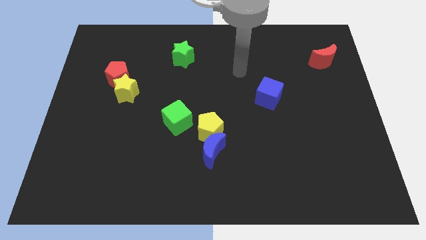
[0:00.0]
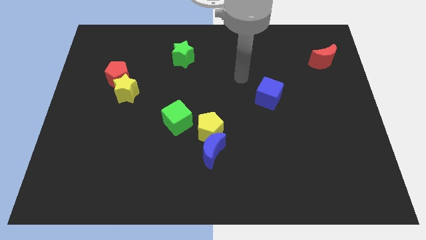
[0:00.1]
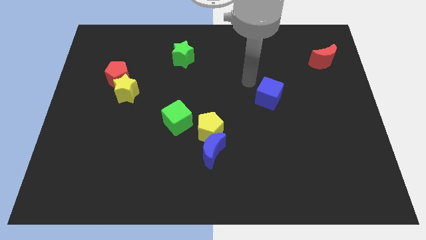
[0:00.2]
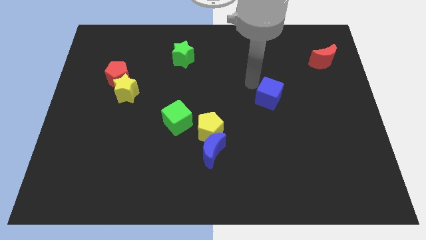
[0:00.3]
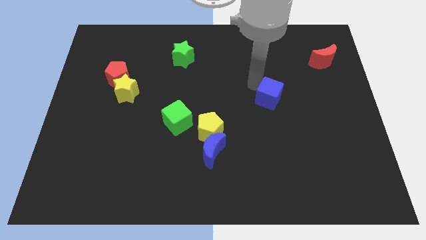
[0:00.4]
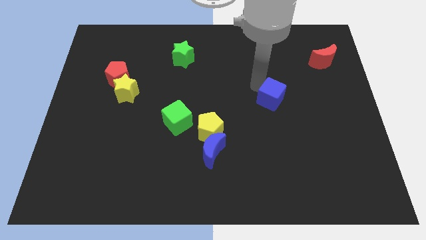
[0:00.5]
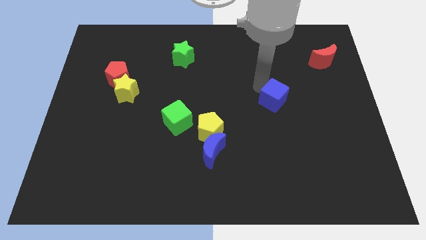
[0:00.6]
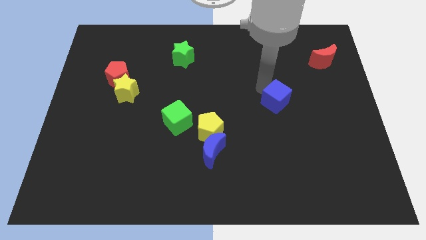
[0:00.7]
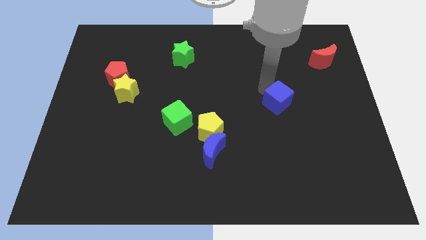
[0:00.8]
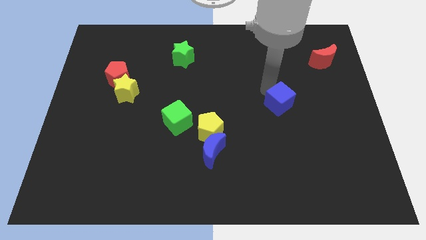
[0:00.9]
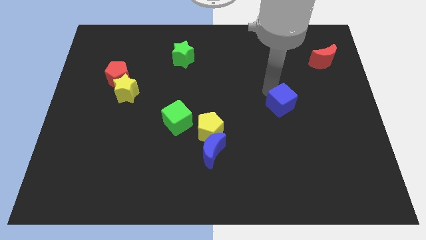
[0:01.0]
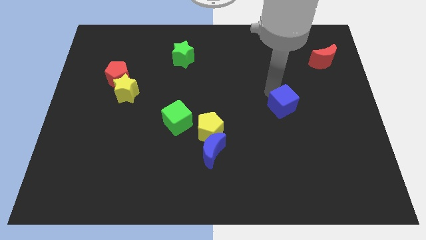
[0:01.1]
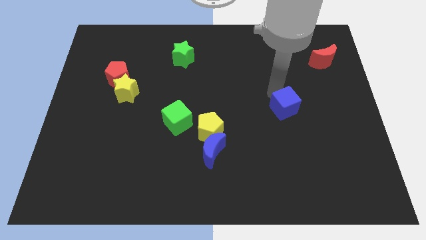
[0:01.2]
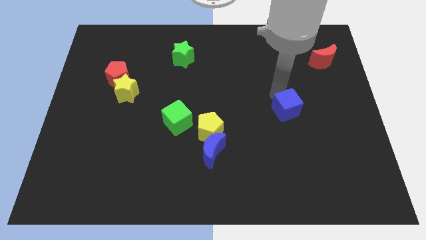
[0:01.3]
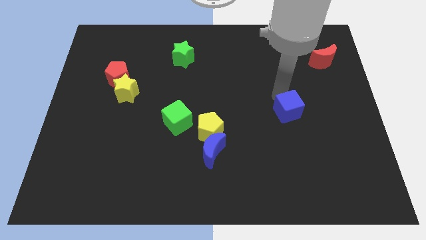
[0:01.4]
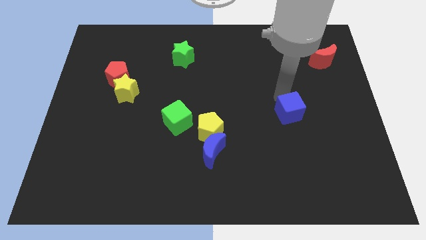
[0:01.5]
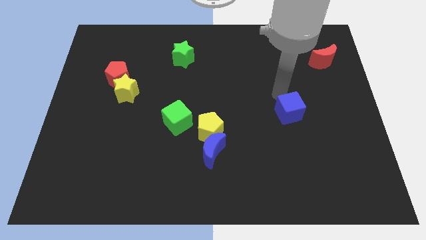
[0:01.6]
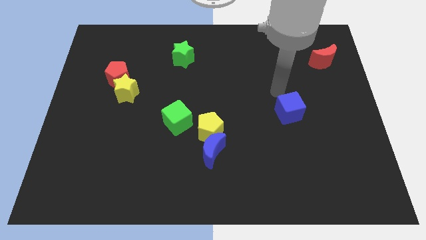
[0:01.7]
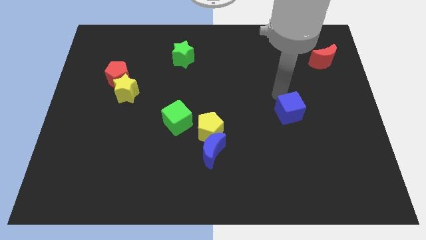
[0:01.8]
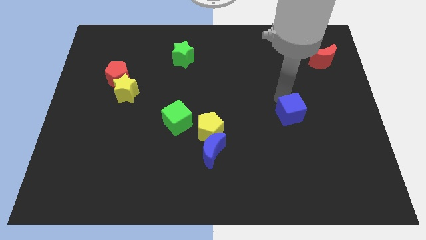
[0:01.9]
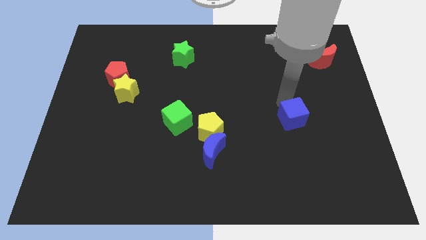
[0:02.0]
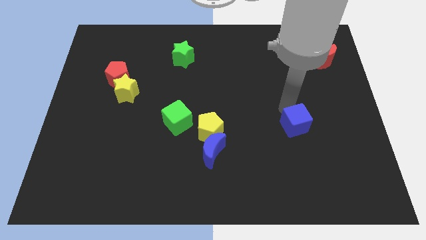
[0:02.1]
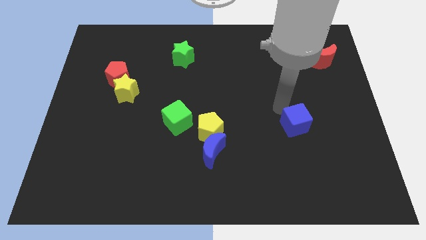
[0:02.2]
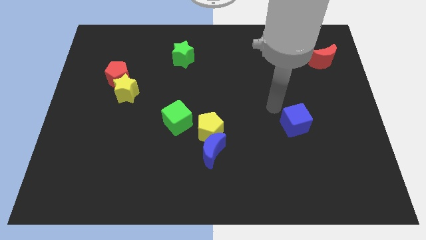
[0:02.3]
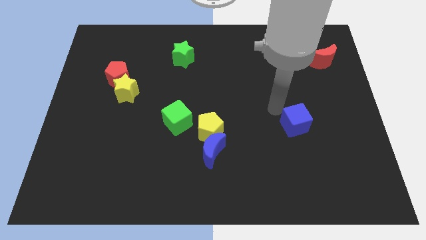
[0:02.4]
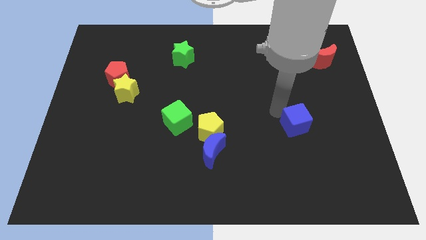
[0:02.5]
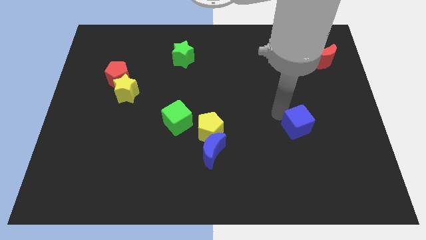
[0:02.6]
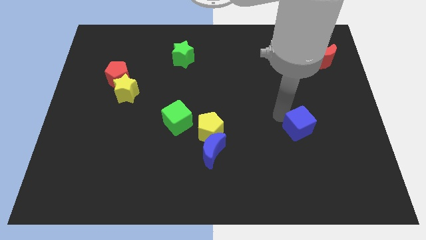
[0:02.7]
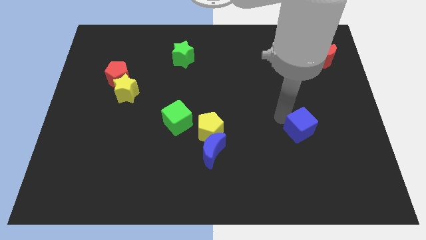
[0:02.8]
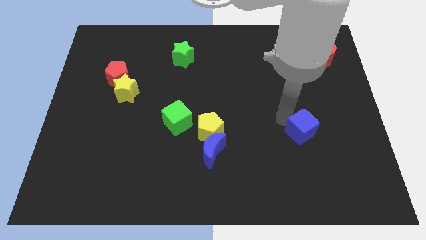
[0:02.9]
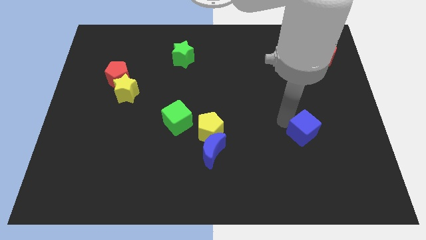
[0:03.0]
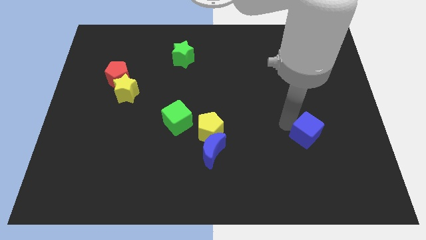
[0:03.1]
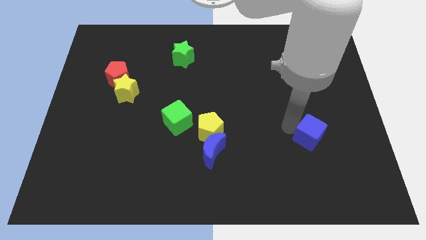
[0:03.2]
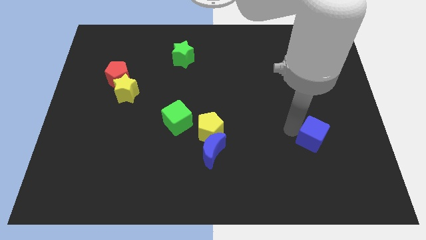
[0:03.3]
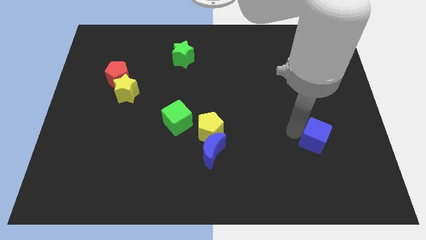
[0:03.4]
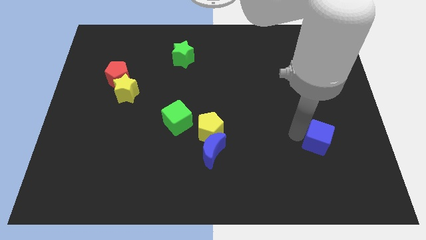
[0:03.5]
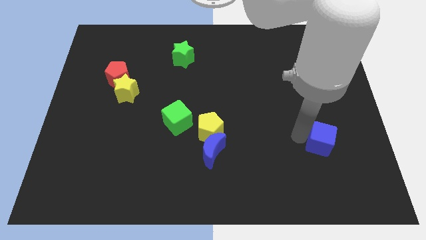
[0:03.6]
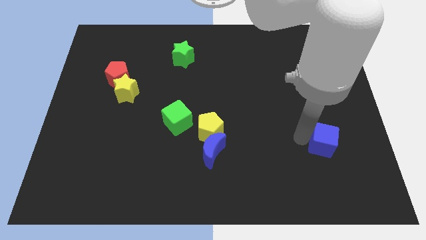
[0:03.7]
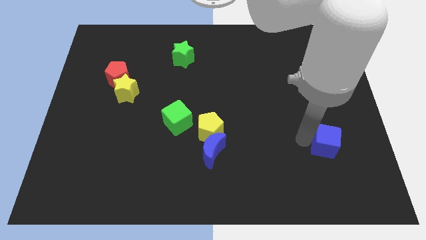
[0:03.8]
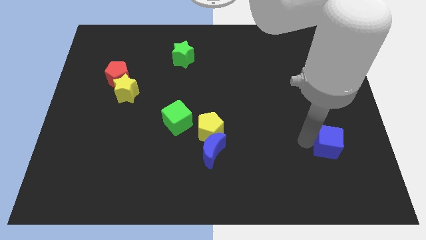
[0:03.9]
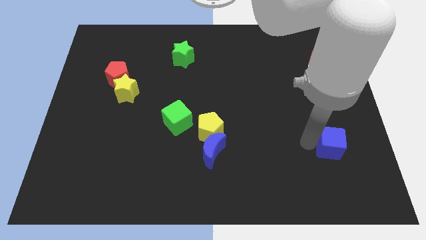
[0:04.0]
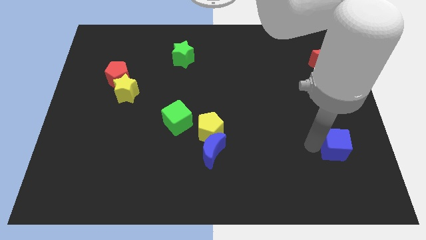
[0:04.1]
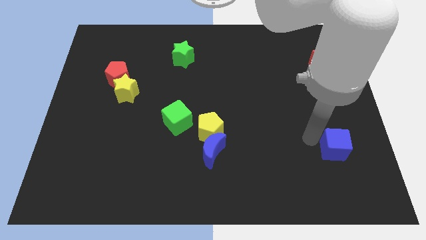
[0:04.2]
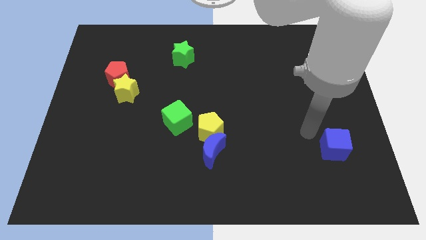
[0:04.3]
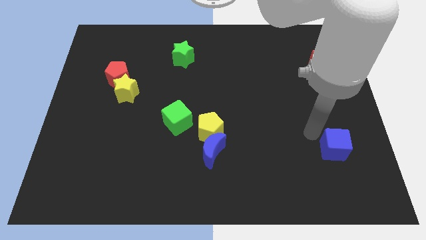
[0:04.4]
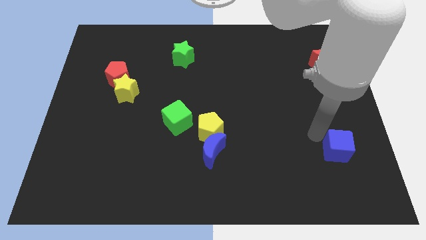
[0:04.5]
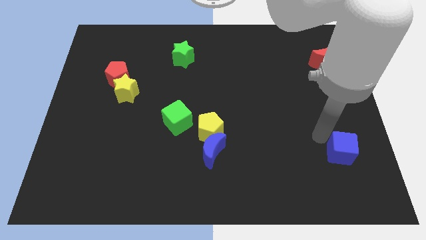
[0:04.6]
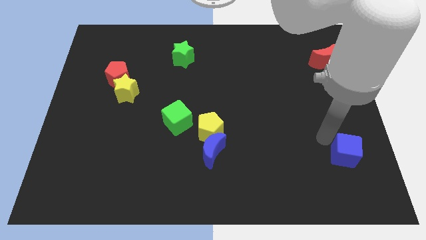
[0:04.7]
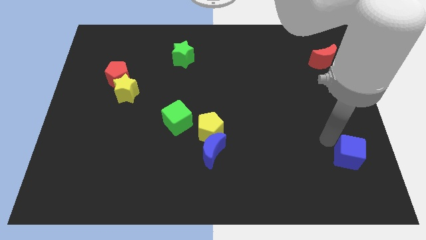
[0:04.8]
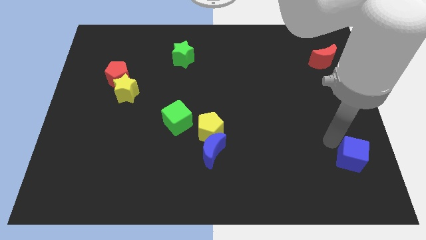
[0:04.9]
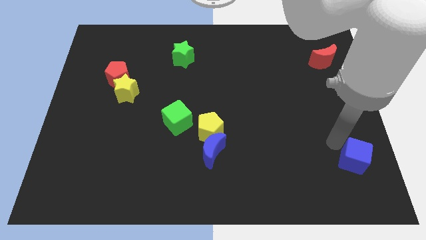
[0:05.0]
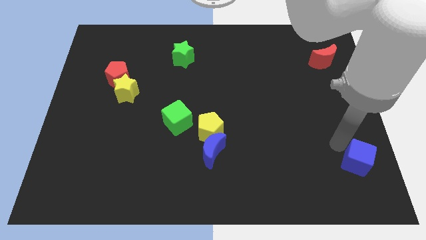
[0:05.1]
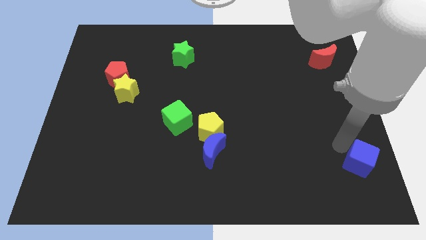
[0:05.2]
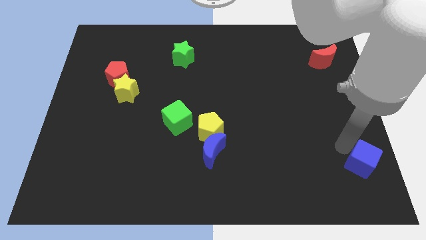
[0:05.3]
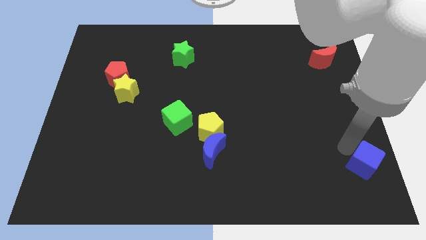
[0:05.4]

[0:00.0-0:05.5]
push the blue cube to the bottom right of the board
